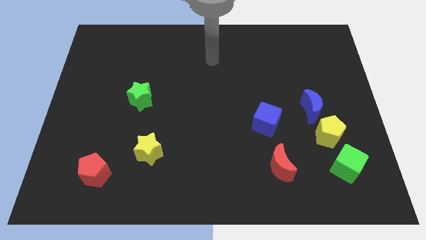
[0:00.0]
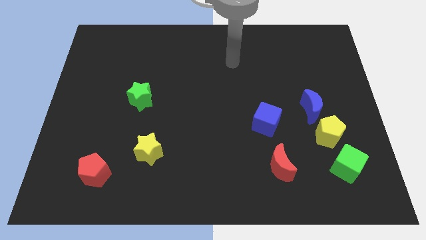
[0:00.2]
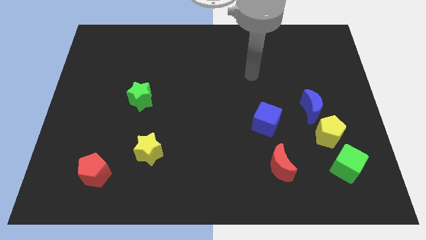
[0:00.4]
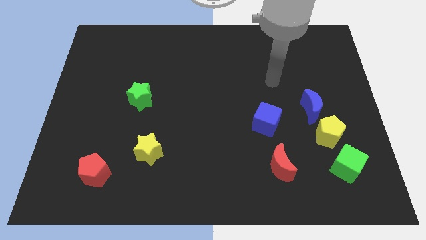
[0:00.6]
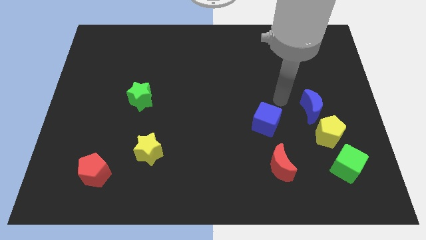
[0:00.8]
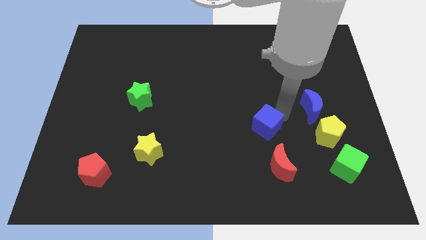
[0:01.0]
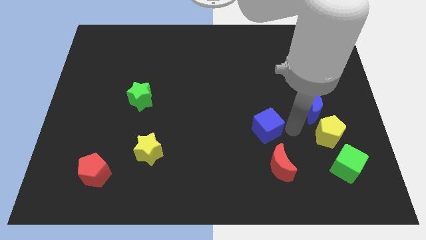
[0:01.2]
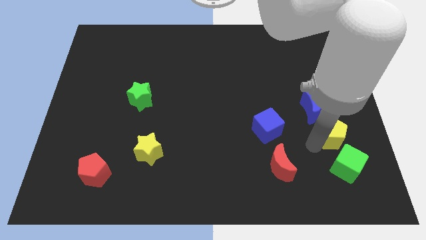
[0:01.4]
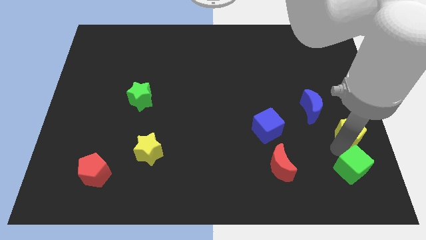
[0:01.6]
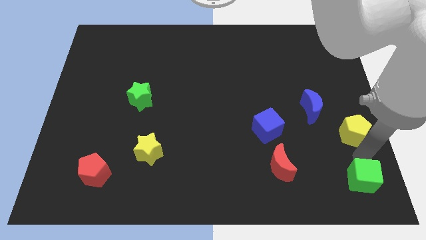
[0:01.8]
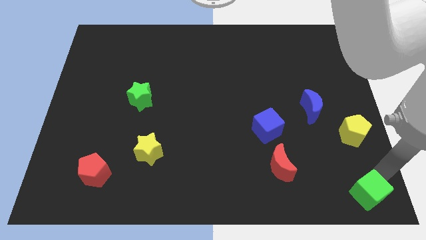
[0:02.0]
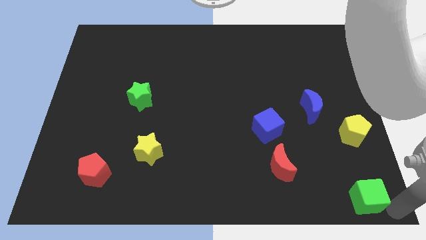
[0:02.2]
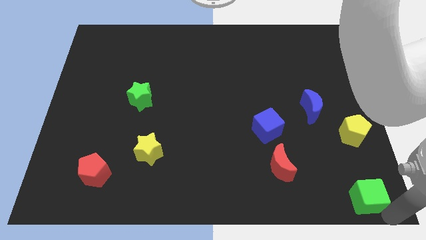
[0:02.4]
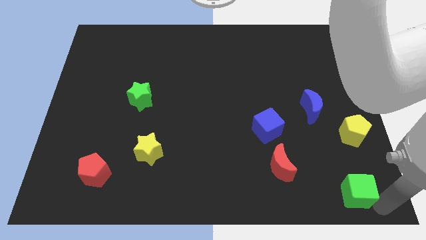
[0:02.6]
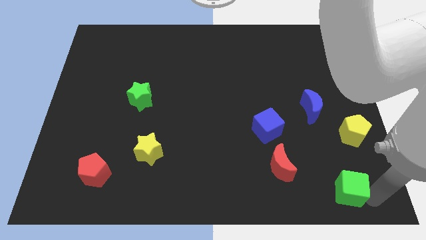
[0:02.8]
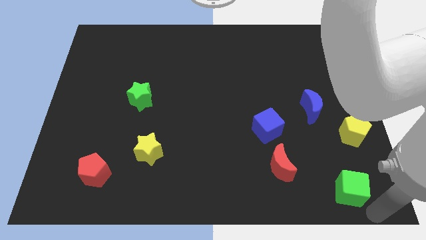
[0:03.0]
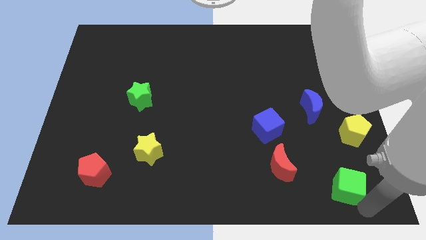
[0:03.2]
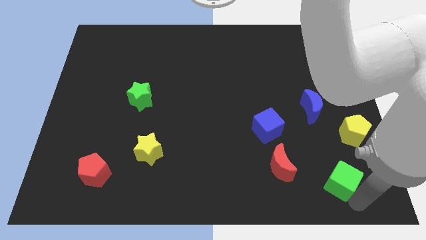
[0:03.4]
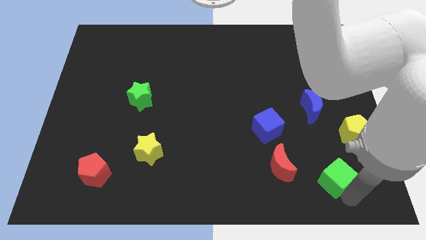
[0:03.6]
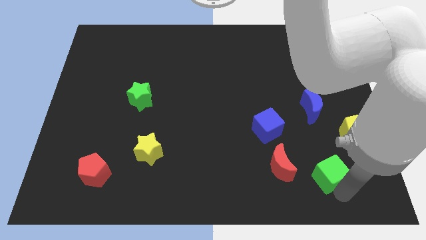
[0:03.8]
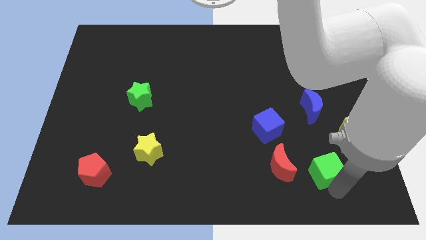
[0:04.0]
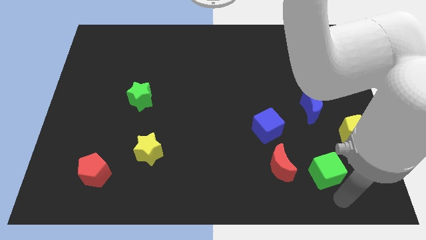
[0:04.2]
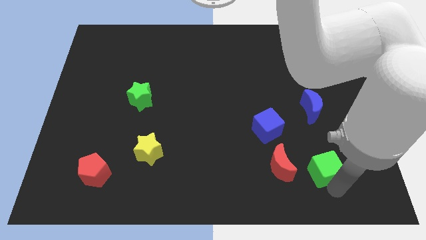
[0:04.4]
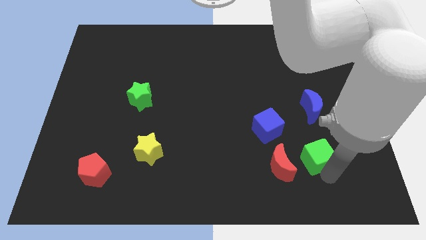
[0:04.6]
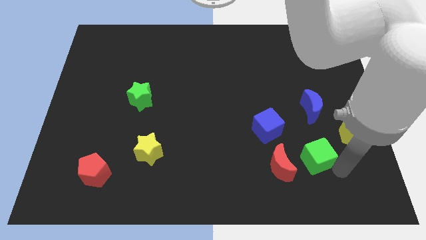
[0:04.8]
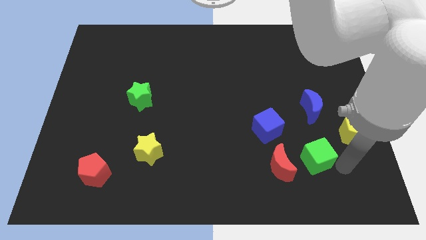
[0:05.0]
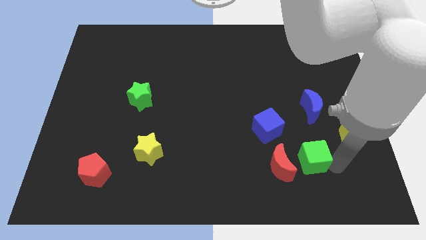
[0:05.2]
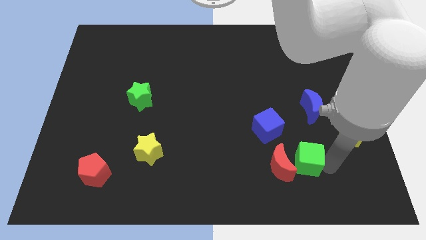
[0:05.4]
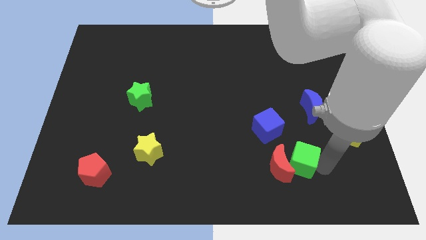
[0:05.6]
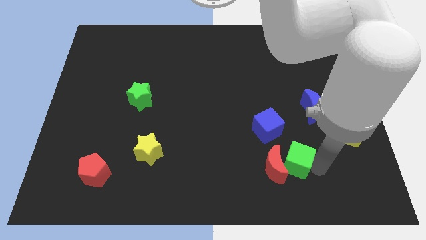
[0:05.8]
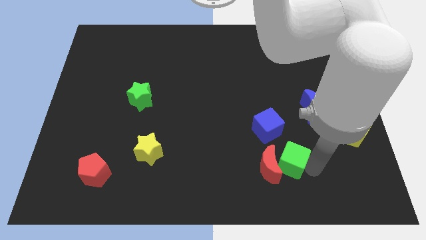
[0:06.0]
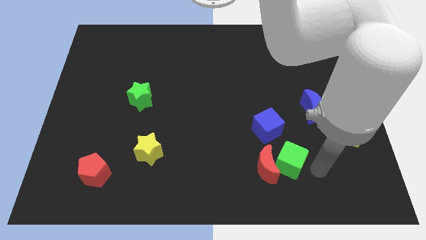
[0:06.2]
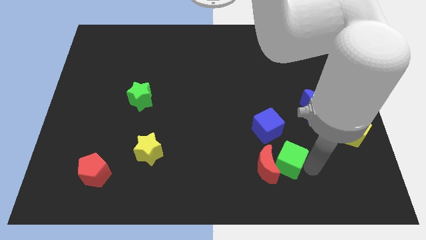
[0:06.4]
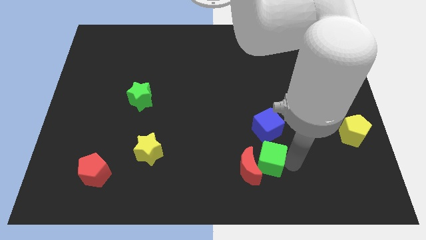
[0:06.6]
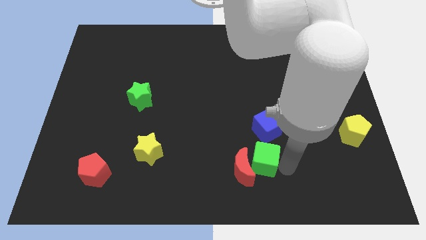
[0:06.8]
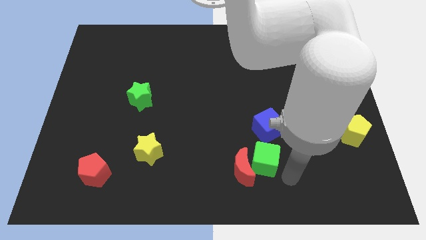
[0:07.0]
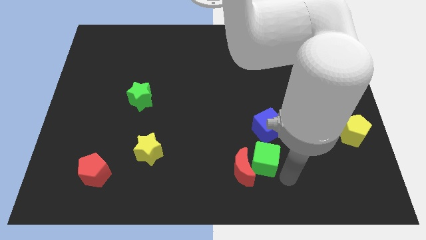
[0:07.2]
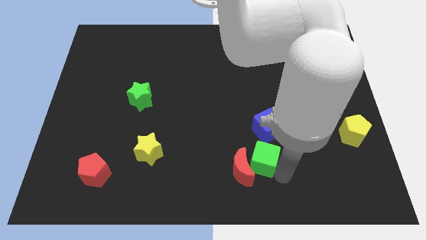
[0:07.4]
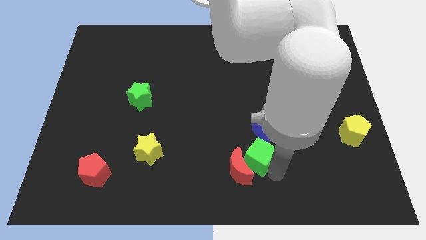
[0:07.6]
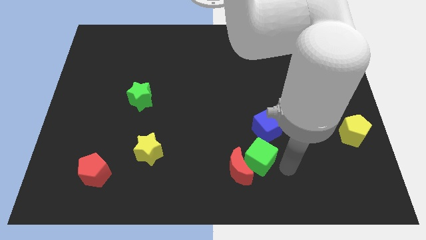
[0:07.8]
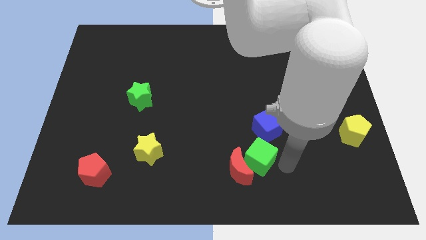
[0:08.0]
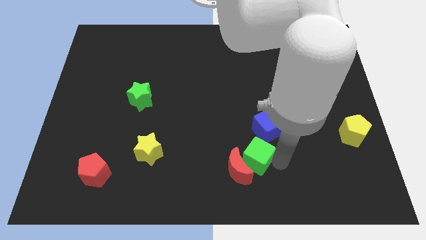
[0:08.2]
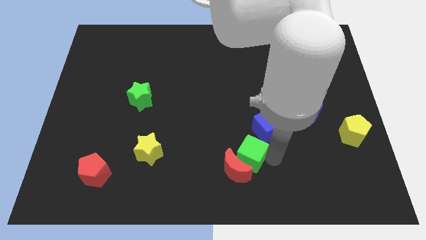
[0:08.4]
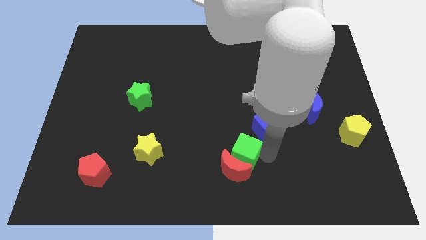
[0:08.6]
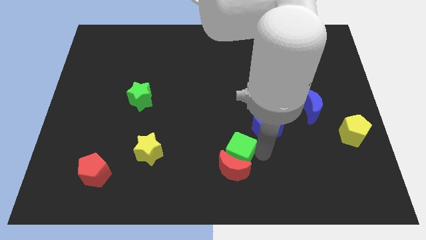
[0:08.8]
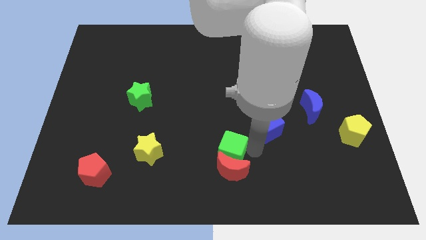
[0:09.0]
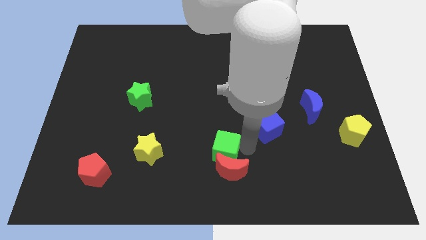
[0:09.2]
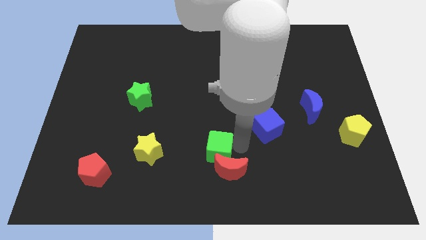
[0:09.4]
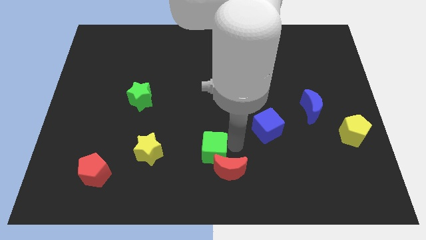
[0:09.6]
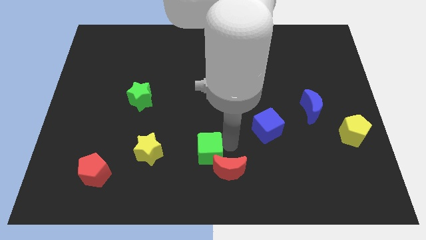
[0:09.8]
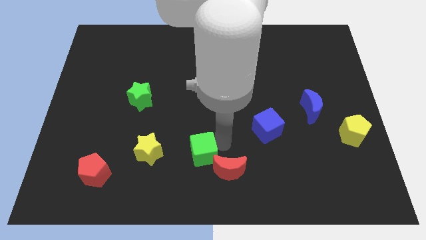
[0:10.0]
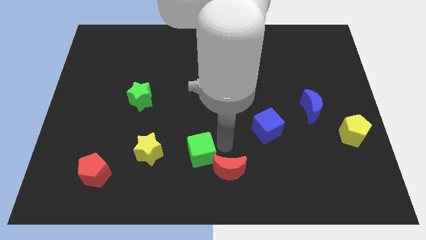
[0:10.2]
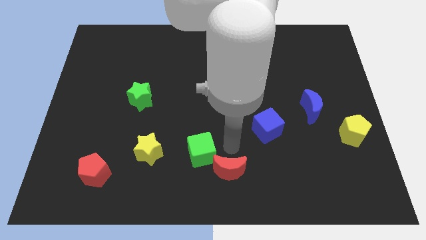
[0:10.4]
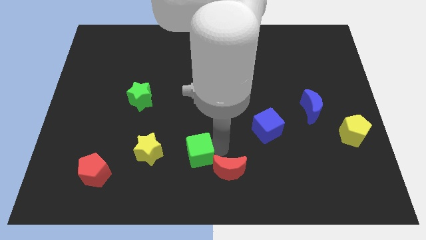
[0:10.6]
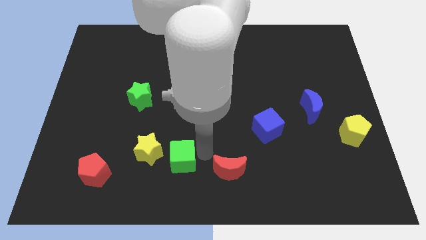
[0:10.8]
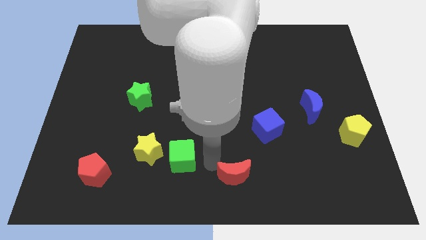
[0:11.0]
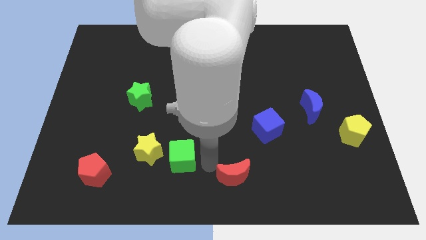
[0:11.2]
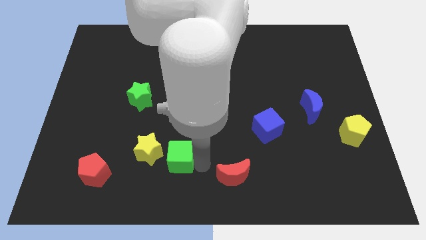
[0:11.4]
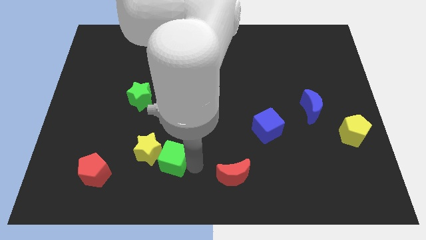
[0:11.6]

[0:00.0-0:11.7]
slide the green cube towards the yellow star
